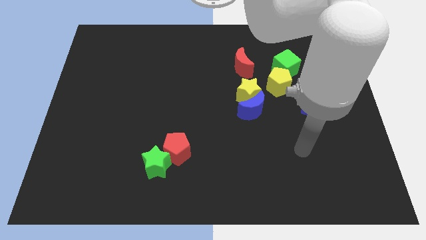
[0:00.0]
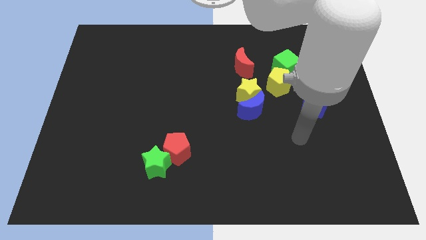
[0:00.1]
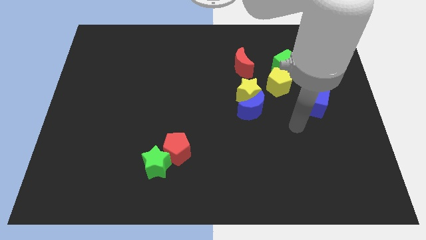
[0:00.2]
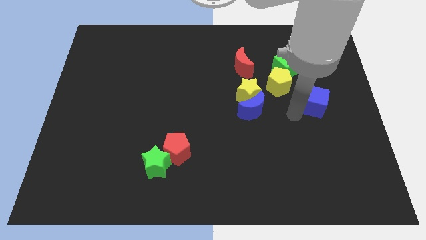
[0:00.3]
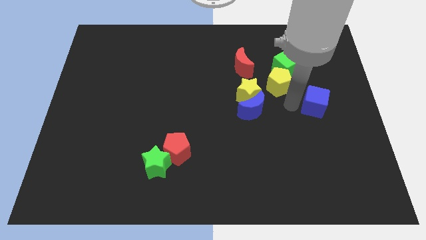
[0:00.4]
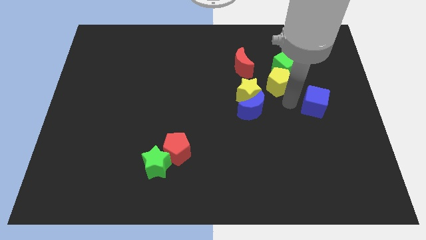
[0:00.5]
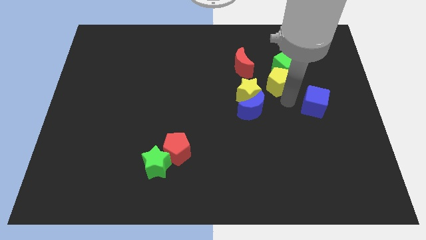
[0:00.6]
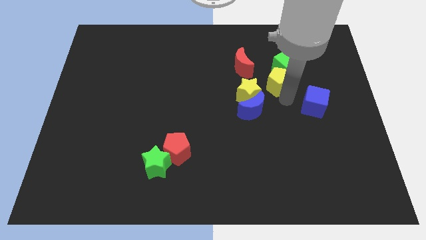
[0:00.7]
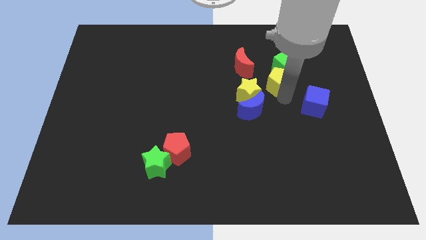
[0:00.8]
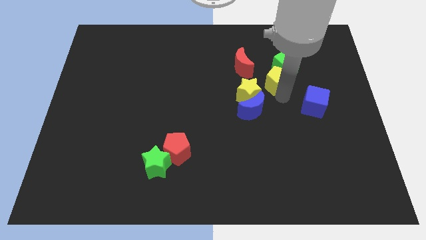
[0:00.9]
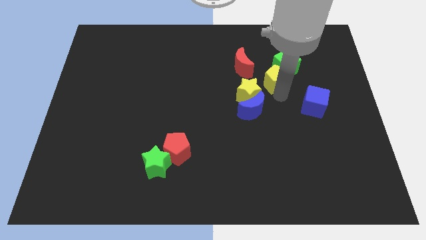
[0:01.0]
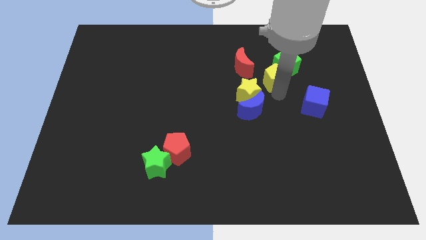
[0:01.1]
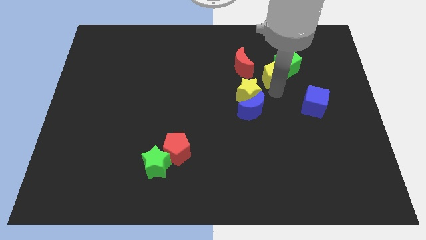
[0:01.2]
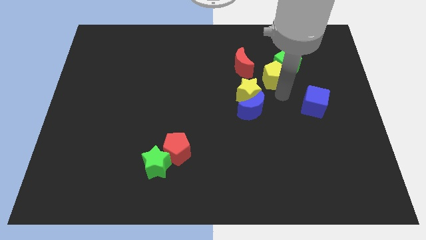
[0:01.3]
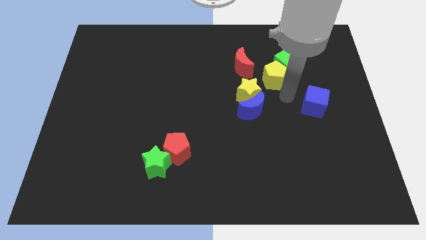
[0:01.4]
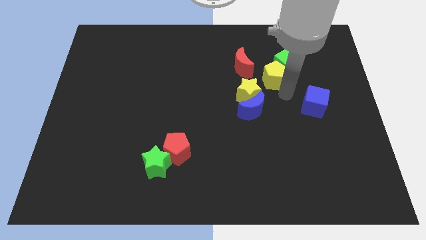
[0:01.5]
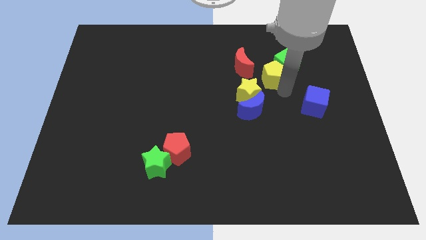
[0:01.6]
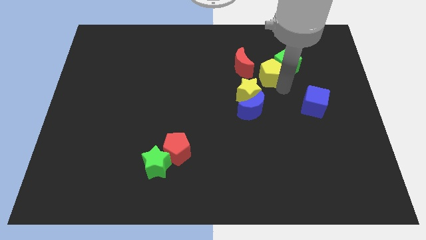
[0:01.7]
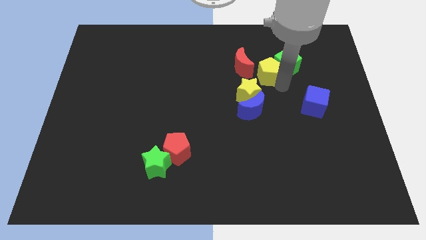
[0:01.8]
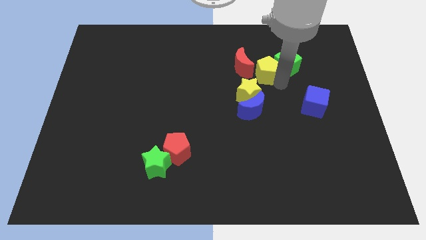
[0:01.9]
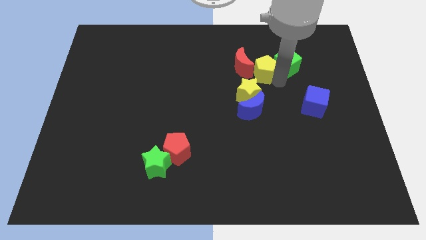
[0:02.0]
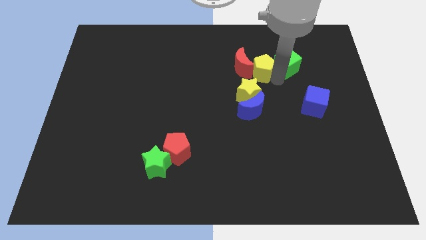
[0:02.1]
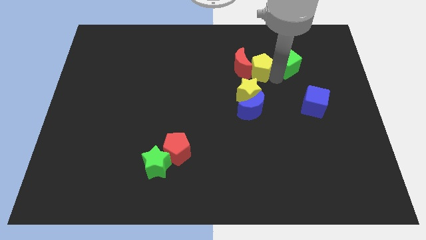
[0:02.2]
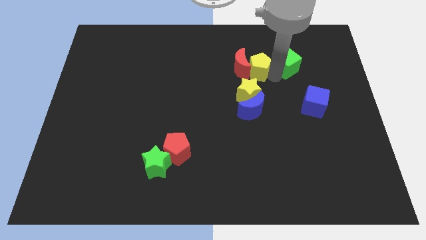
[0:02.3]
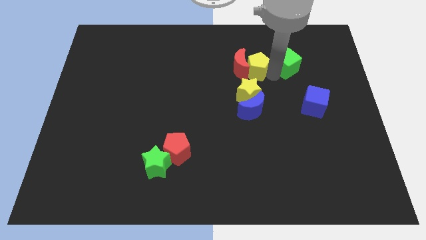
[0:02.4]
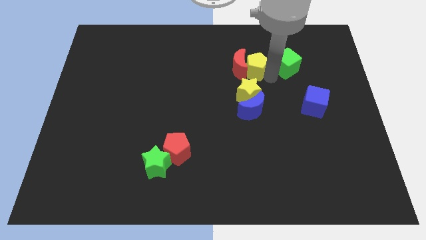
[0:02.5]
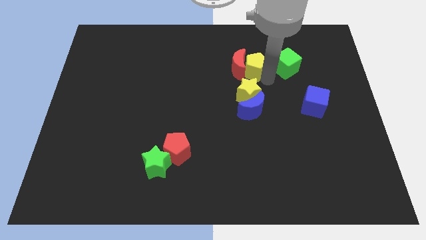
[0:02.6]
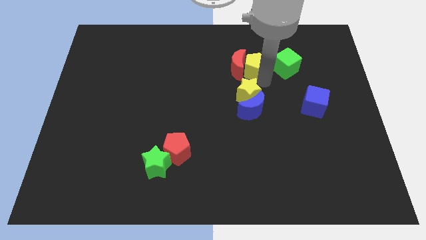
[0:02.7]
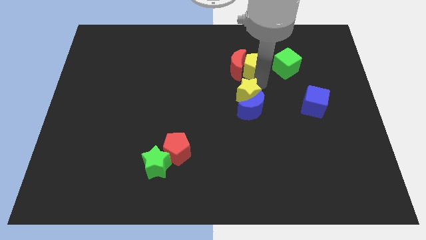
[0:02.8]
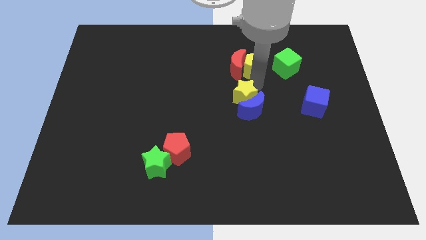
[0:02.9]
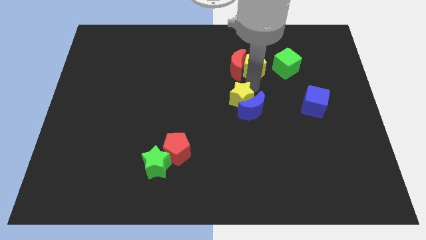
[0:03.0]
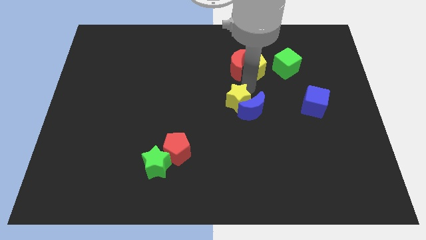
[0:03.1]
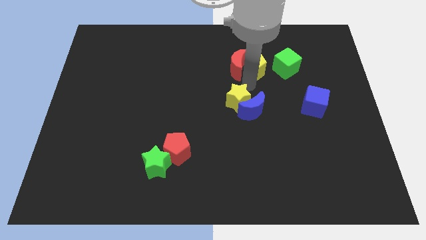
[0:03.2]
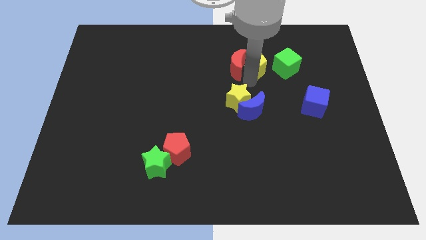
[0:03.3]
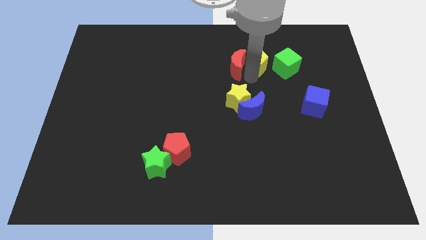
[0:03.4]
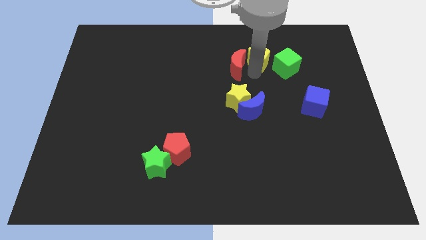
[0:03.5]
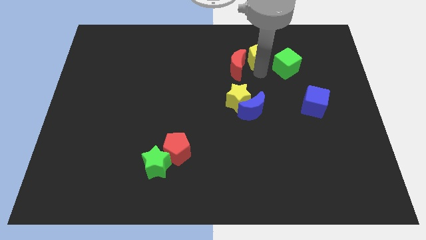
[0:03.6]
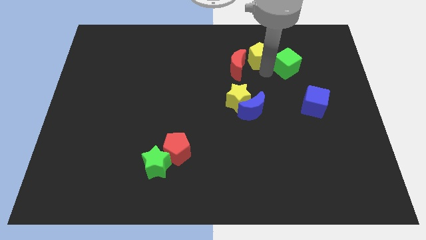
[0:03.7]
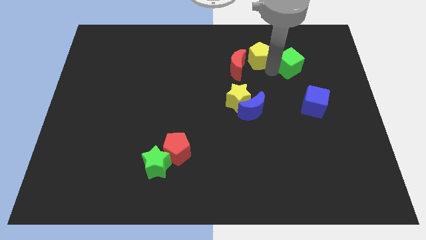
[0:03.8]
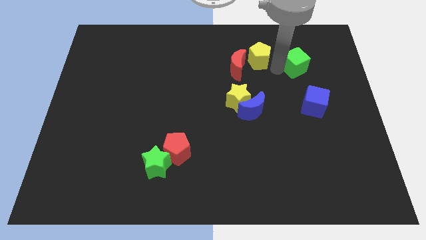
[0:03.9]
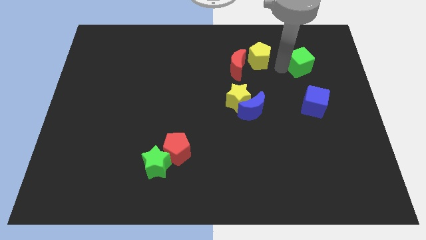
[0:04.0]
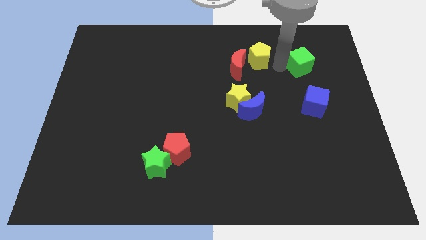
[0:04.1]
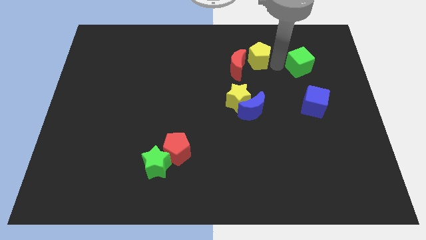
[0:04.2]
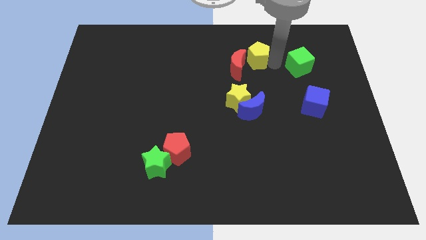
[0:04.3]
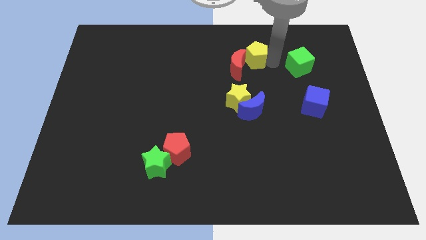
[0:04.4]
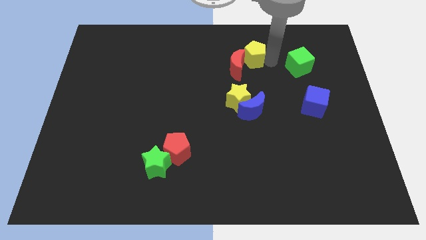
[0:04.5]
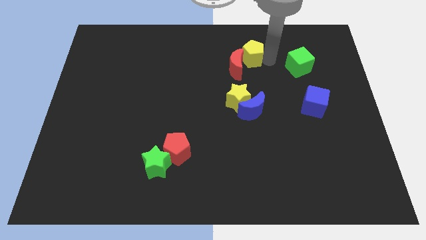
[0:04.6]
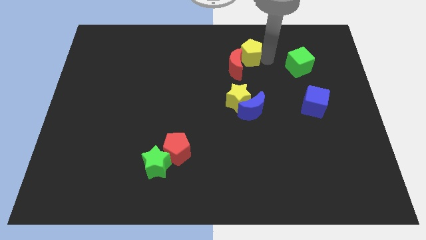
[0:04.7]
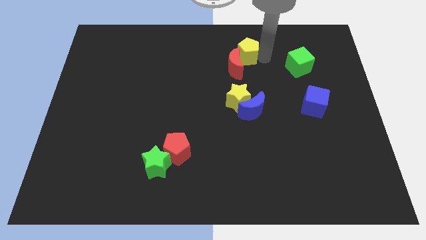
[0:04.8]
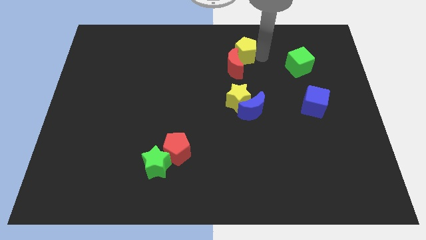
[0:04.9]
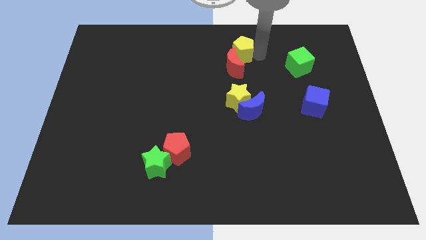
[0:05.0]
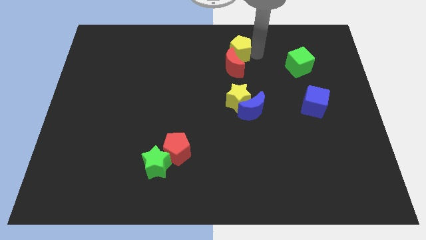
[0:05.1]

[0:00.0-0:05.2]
move the yellow pentagon to the top side

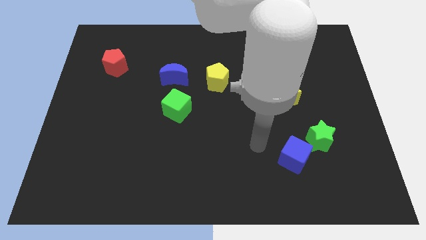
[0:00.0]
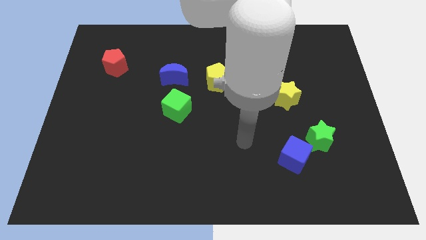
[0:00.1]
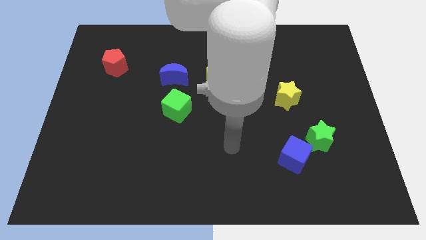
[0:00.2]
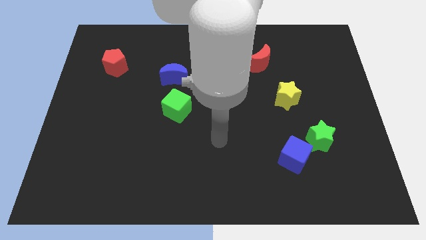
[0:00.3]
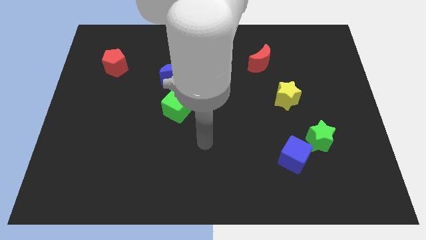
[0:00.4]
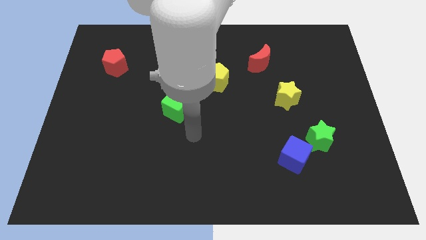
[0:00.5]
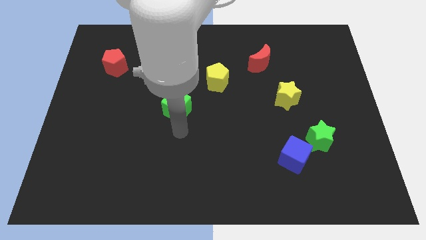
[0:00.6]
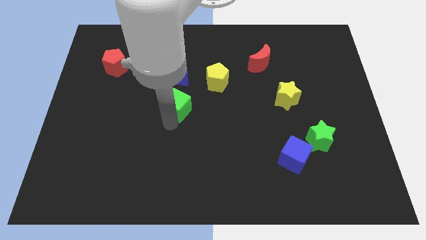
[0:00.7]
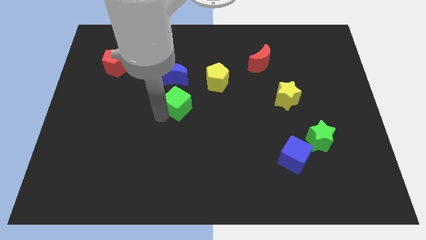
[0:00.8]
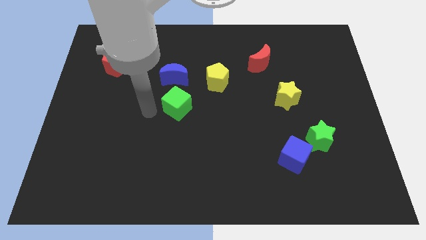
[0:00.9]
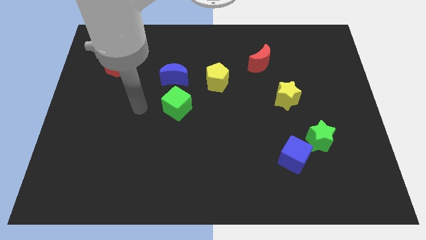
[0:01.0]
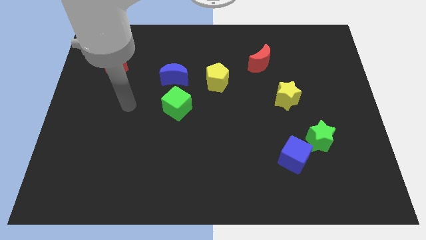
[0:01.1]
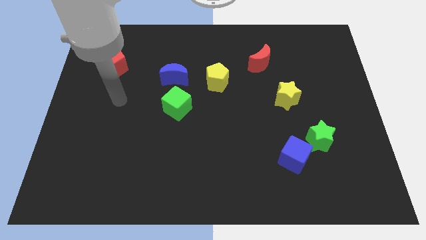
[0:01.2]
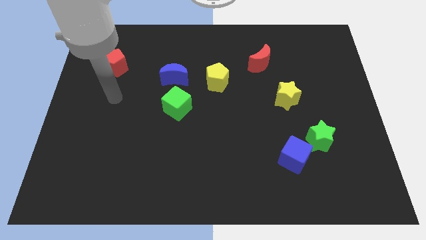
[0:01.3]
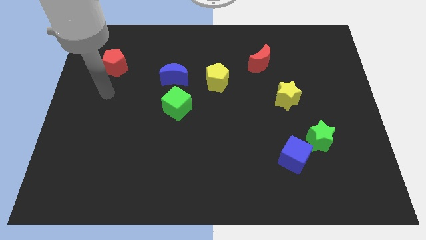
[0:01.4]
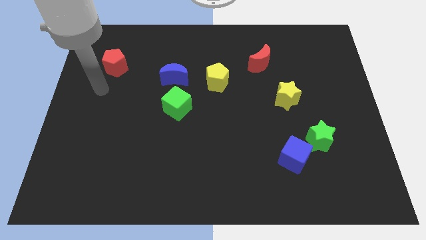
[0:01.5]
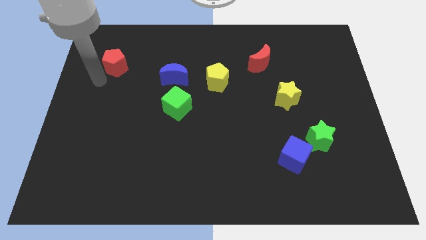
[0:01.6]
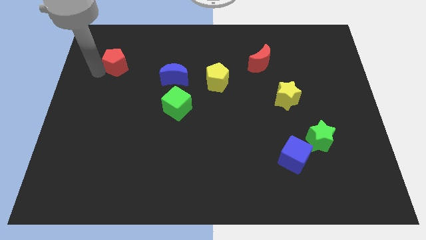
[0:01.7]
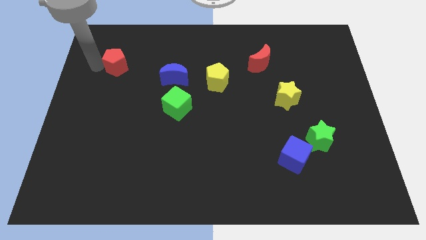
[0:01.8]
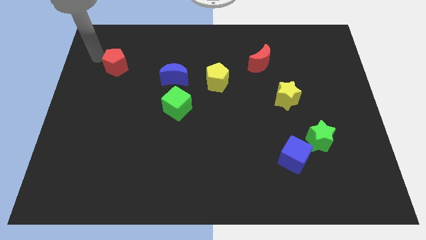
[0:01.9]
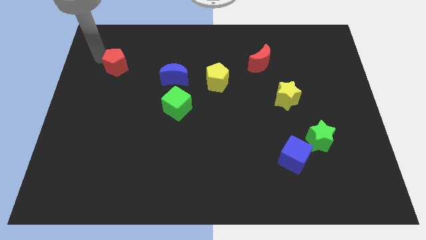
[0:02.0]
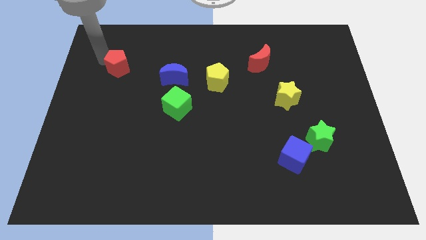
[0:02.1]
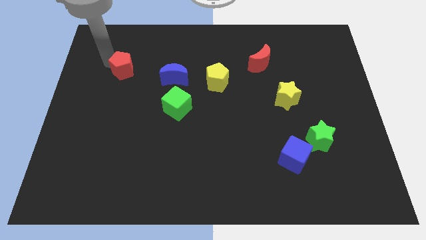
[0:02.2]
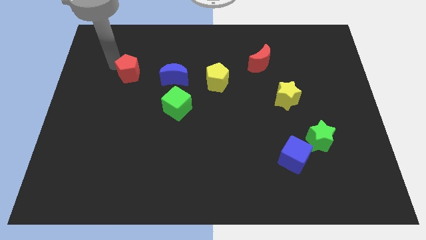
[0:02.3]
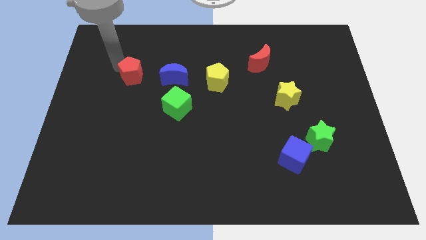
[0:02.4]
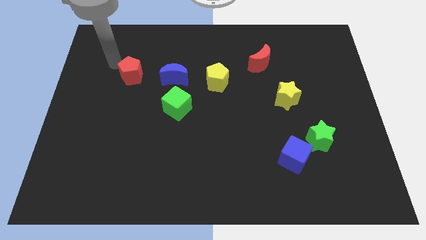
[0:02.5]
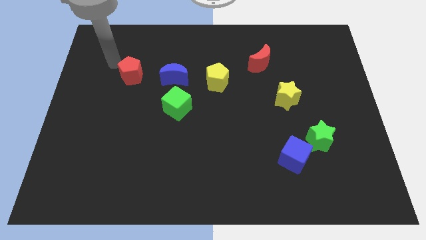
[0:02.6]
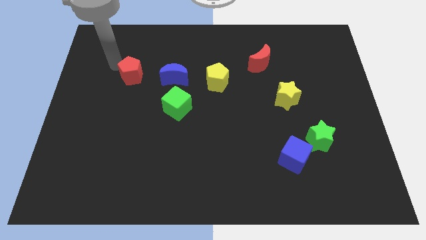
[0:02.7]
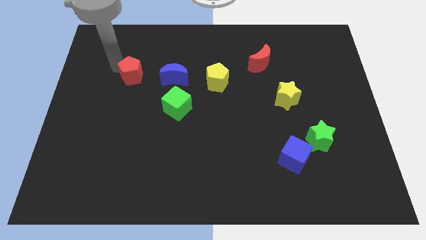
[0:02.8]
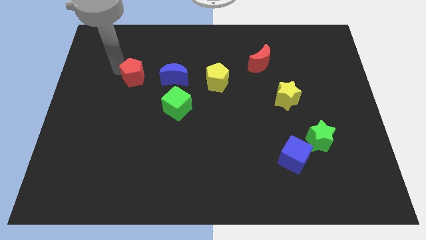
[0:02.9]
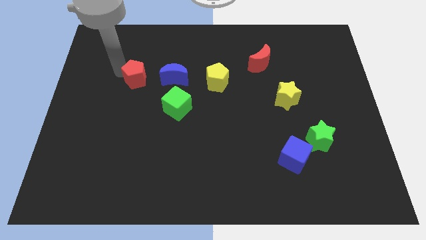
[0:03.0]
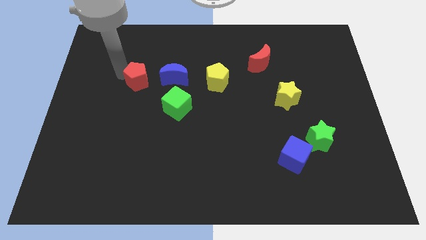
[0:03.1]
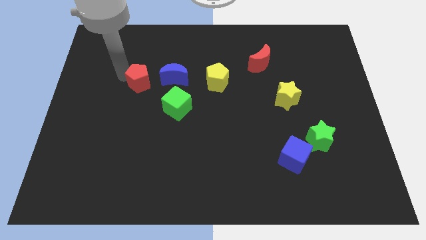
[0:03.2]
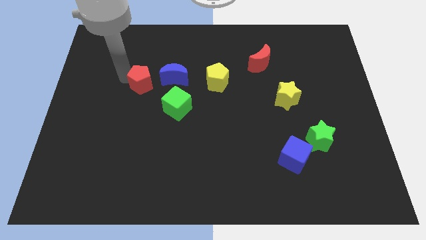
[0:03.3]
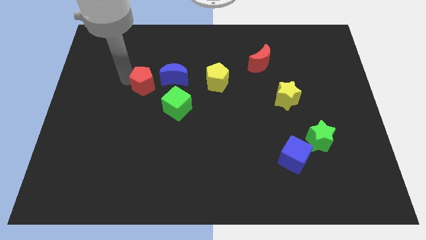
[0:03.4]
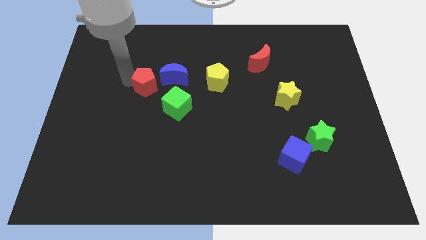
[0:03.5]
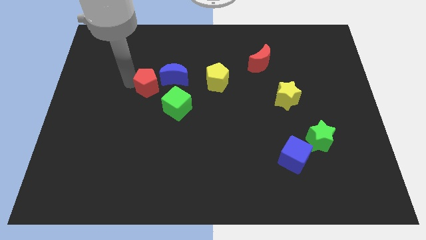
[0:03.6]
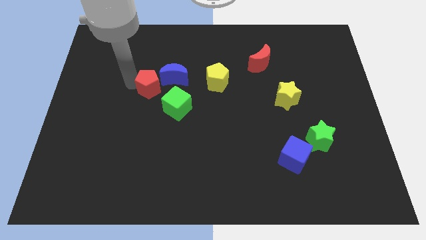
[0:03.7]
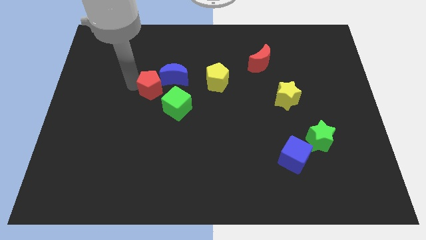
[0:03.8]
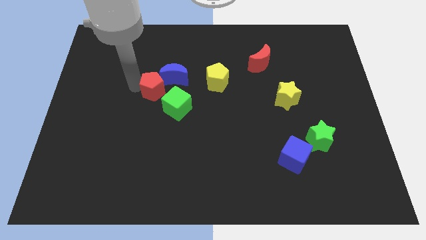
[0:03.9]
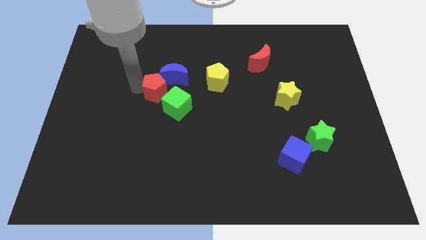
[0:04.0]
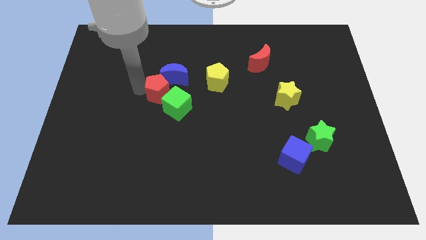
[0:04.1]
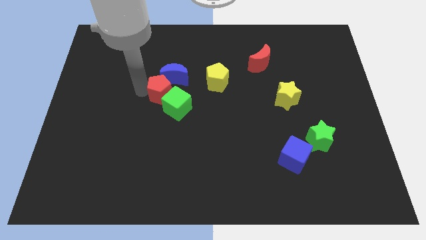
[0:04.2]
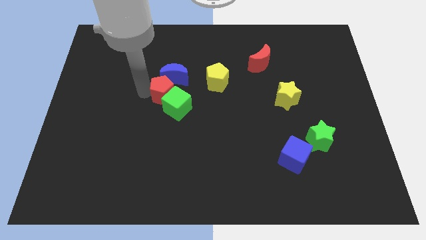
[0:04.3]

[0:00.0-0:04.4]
slide the red pentagon to the center
